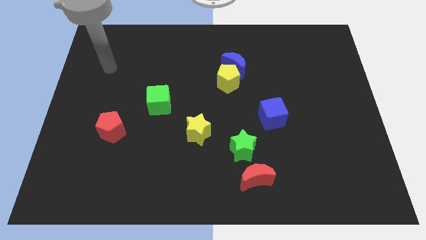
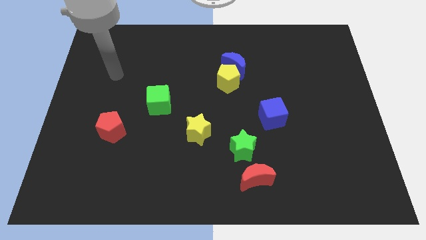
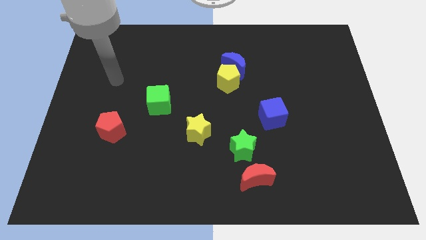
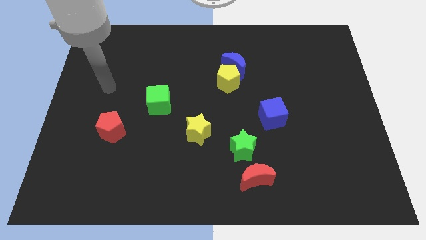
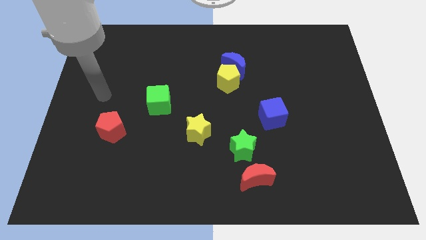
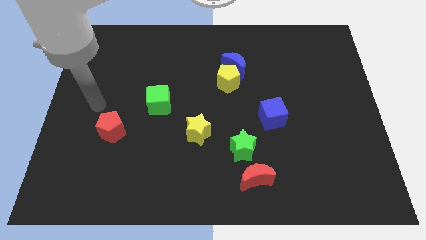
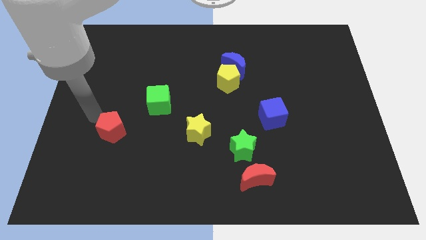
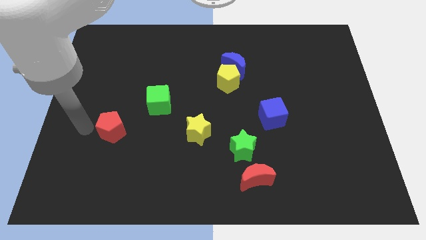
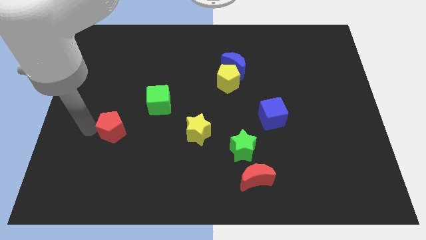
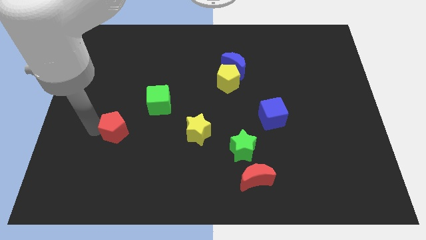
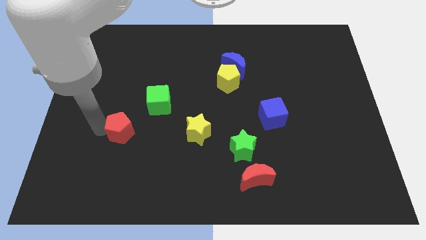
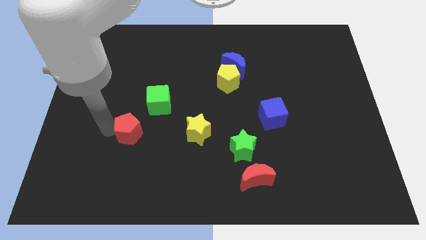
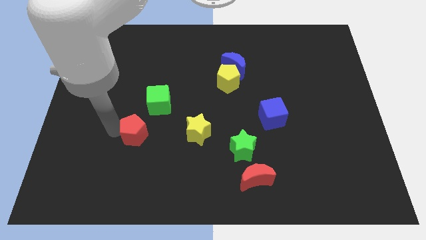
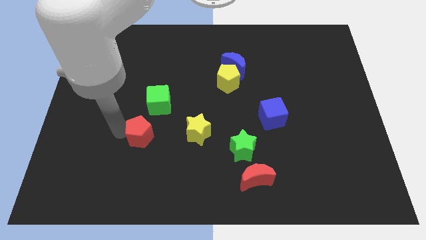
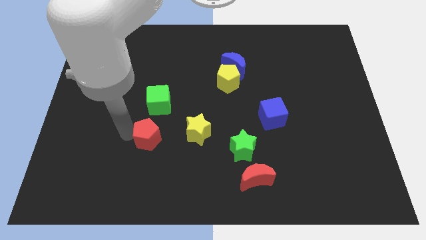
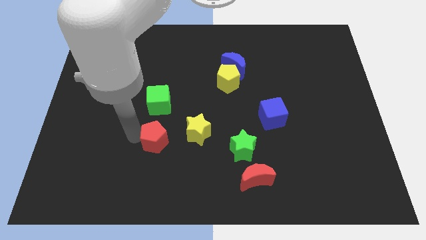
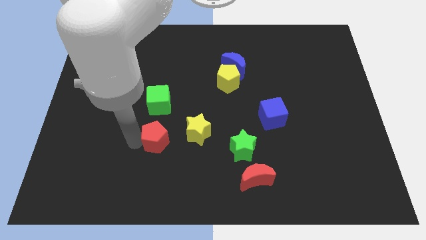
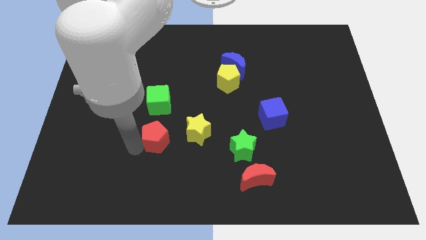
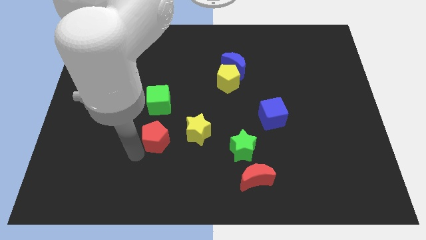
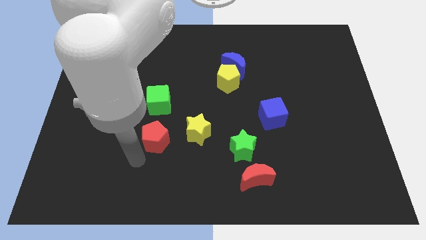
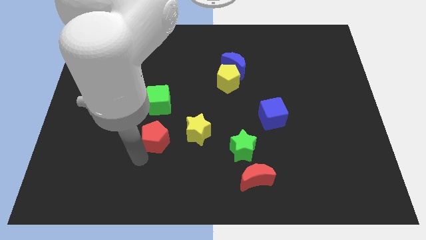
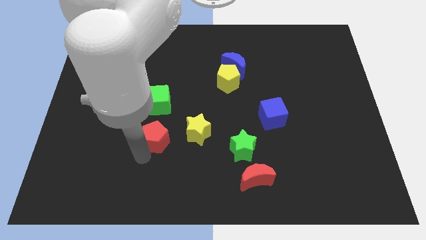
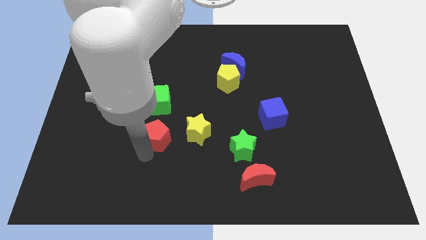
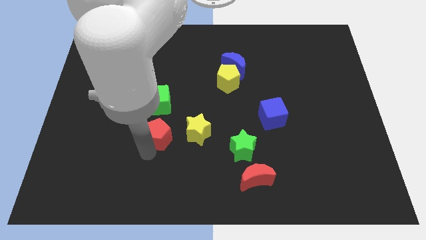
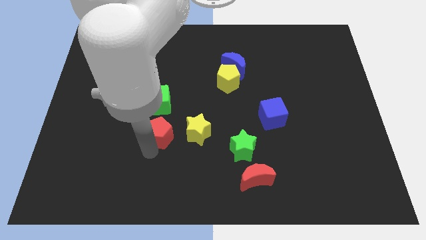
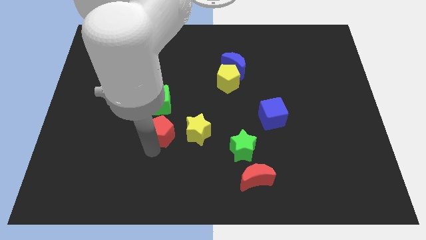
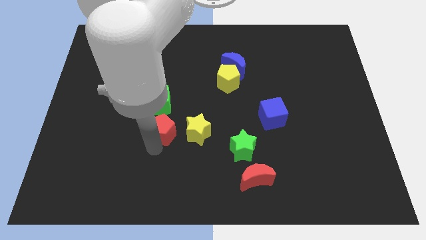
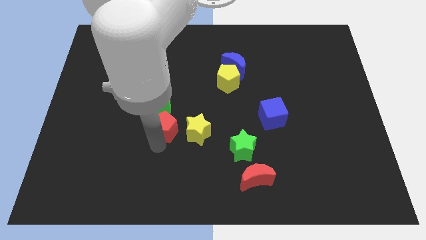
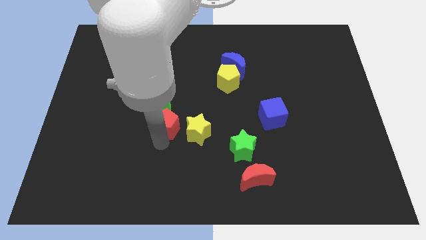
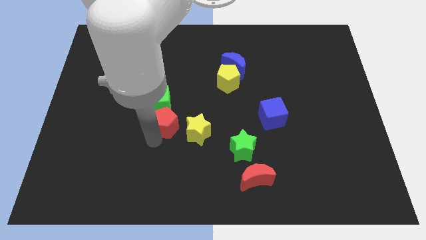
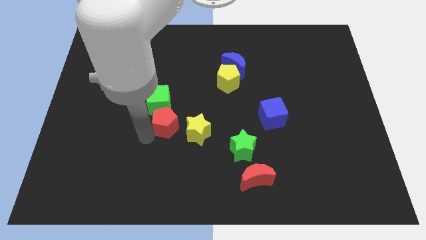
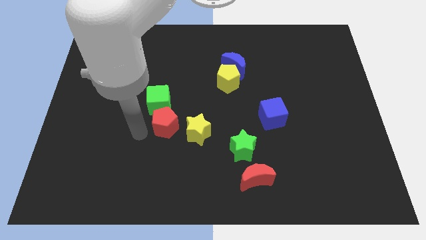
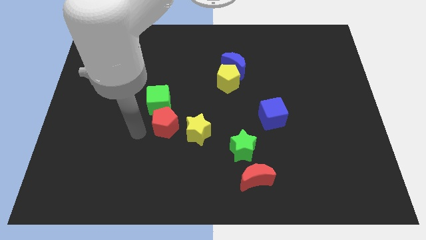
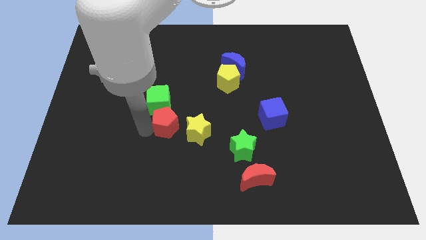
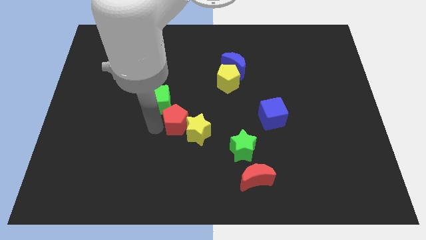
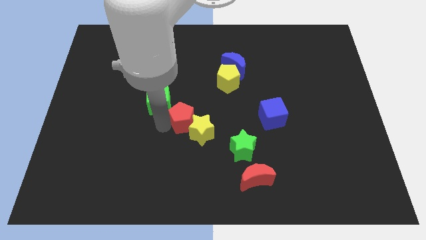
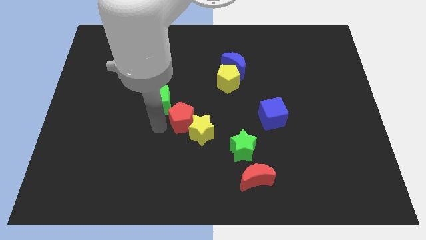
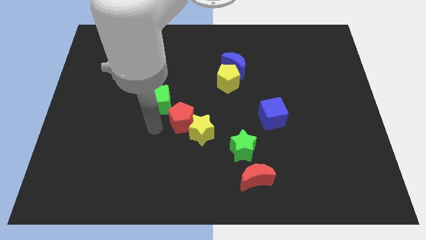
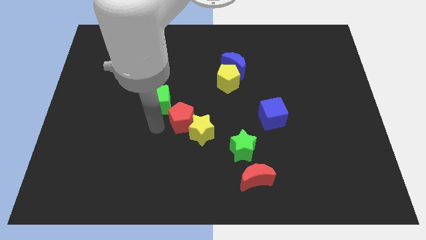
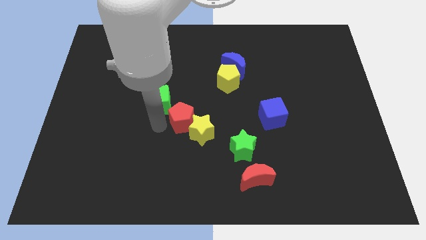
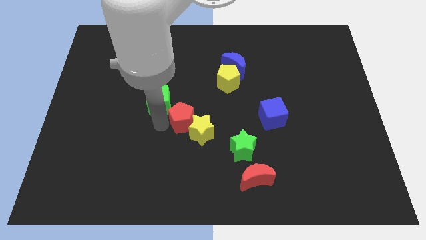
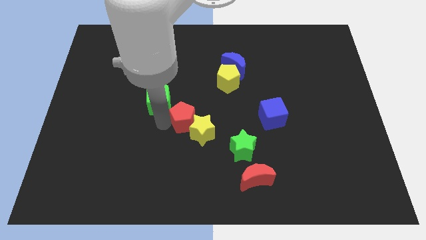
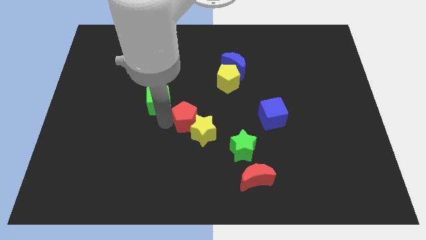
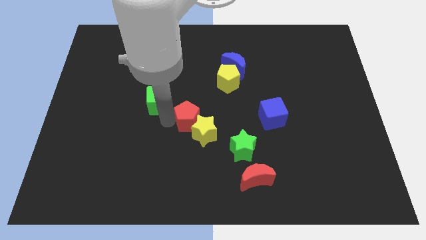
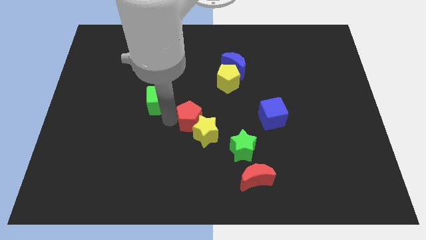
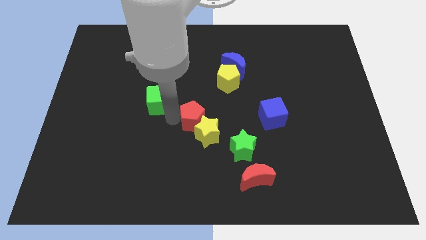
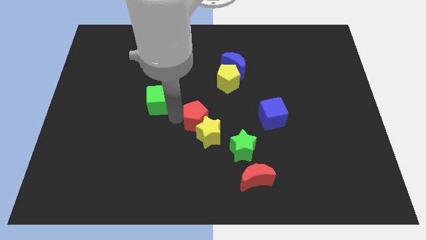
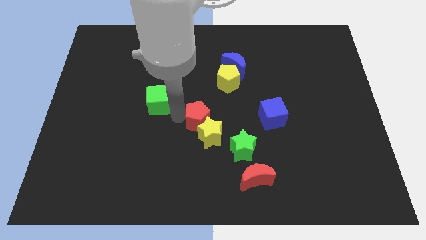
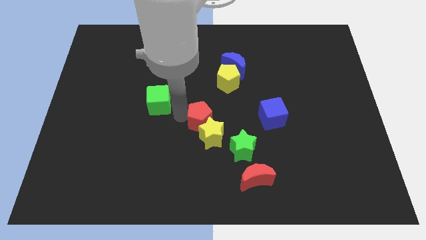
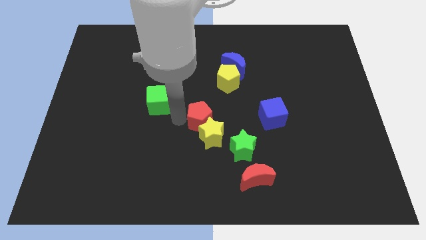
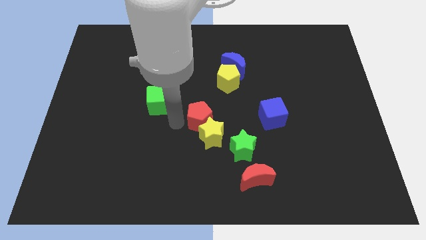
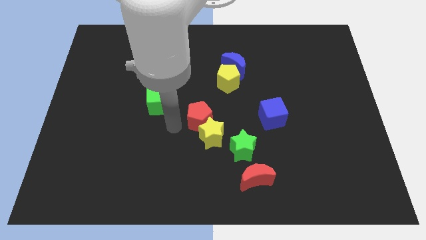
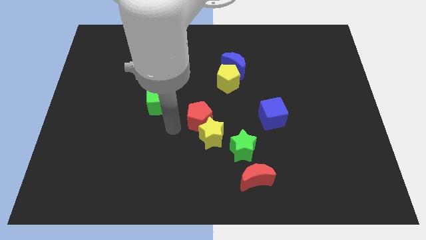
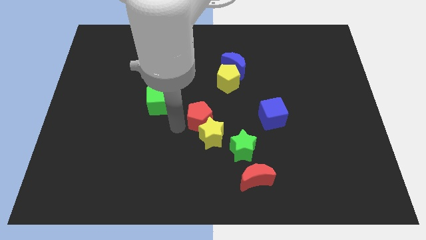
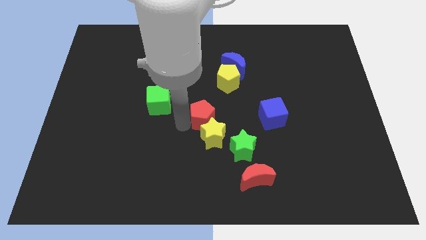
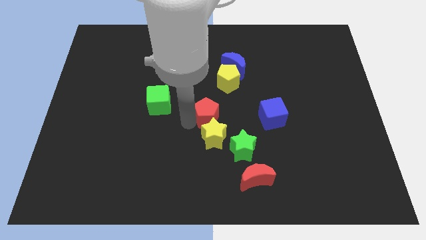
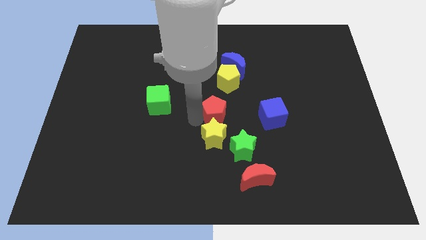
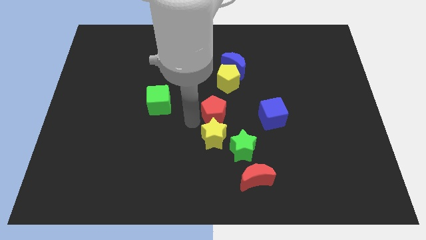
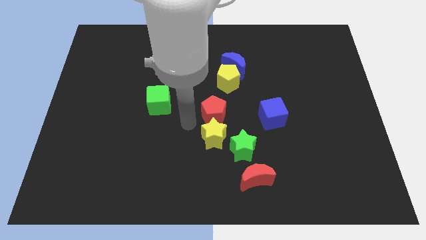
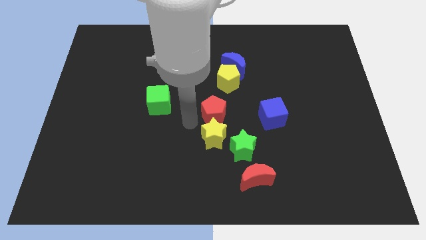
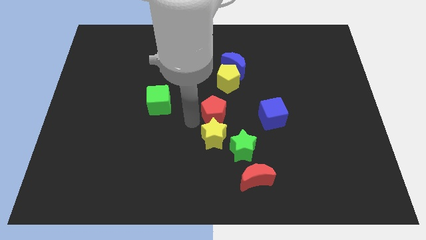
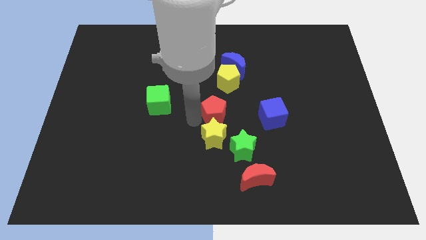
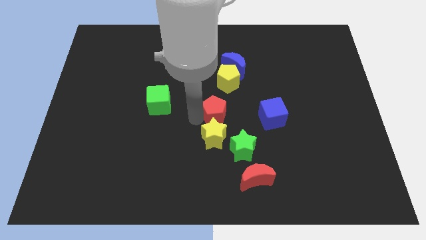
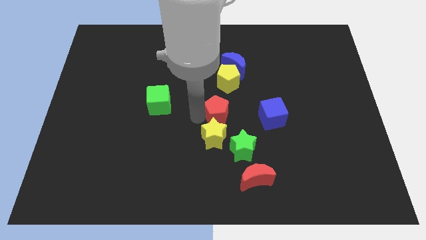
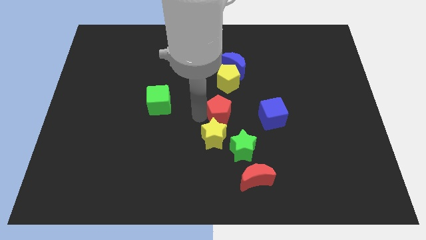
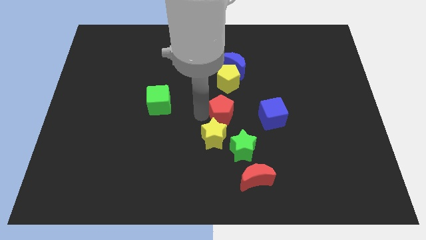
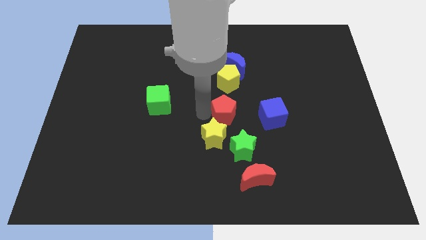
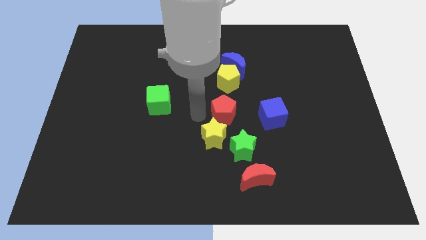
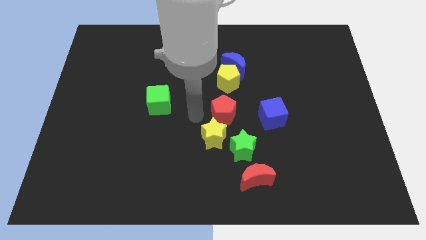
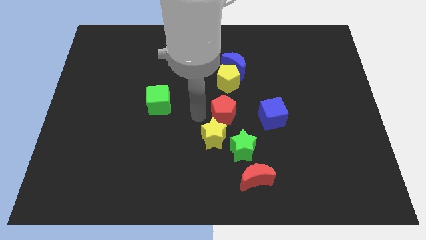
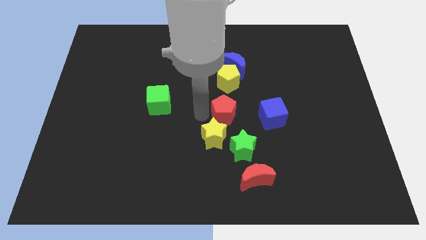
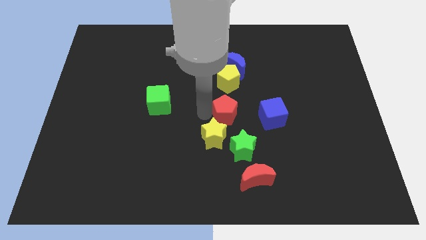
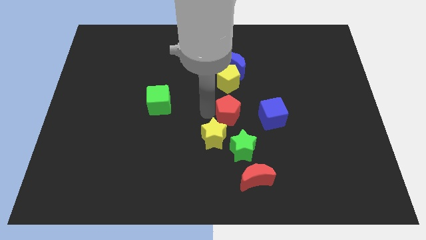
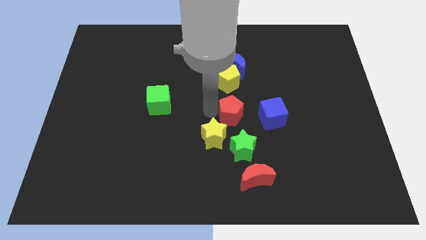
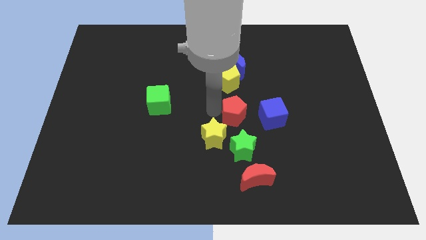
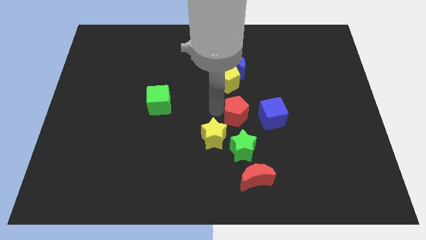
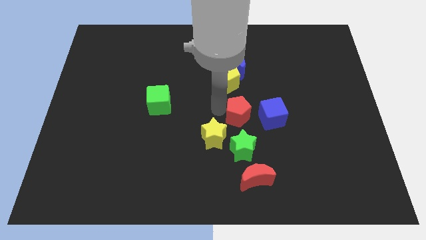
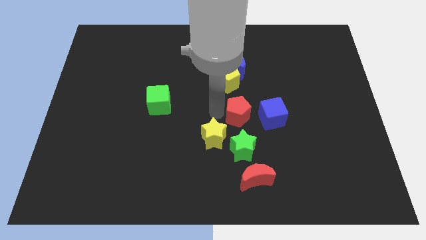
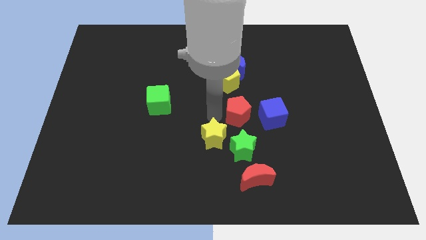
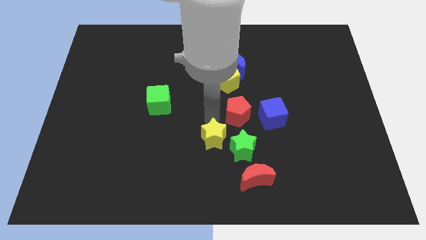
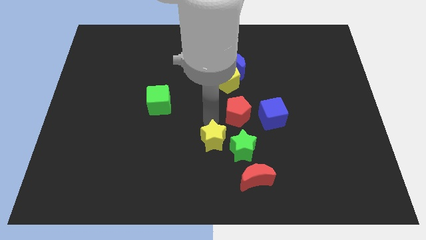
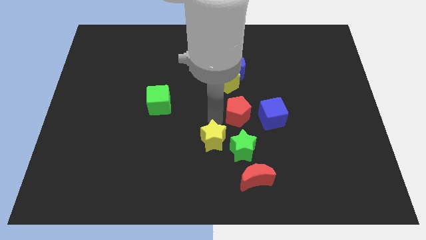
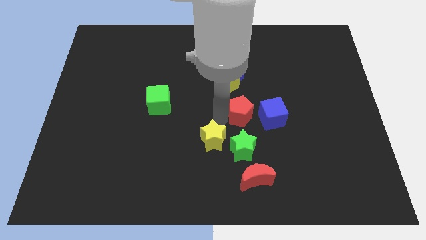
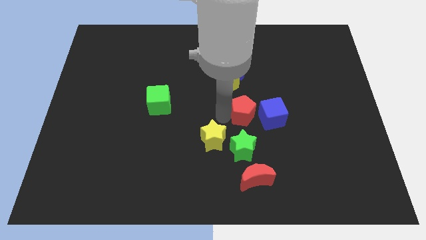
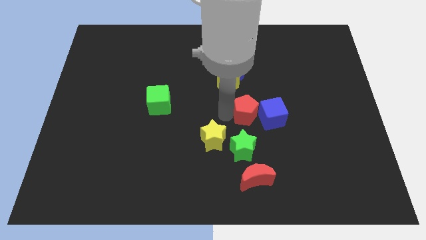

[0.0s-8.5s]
push the red pentagon next to the blue cube
